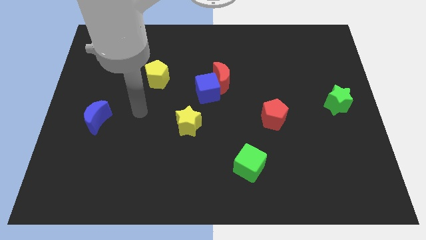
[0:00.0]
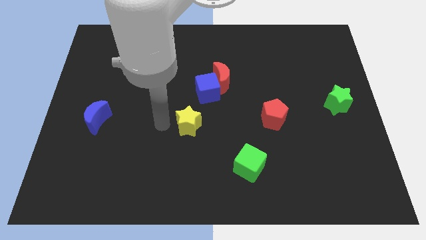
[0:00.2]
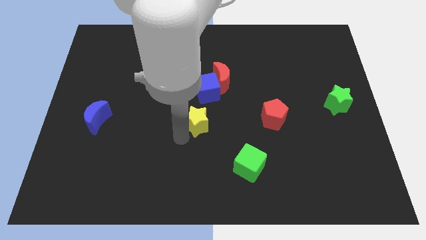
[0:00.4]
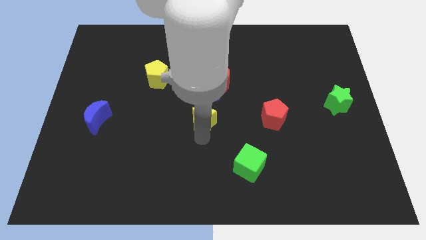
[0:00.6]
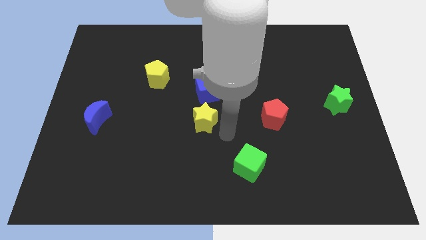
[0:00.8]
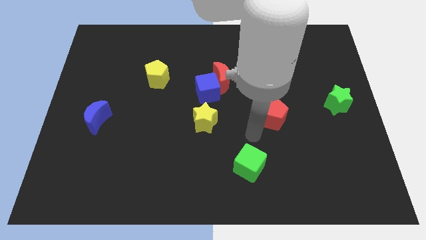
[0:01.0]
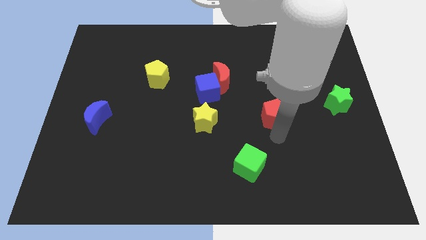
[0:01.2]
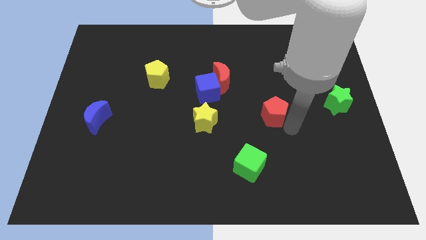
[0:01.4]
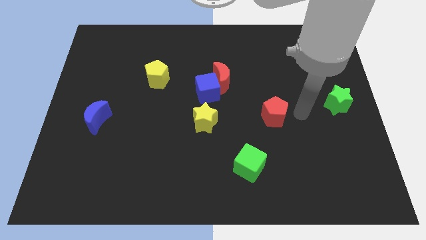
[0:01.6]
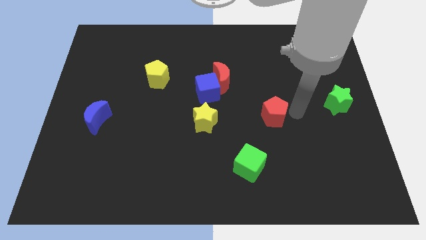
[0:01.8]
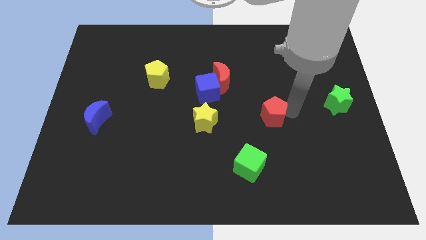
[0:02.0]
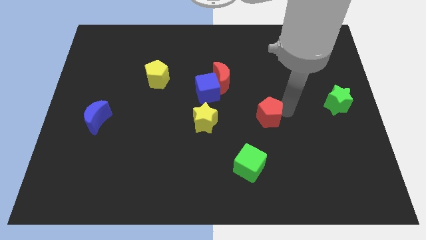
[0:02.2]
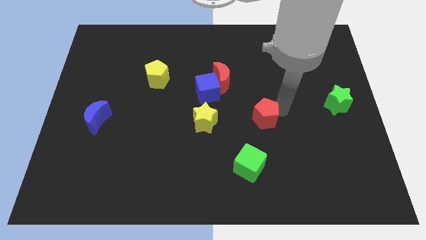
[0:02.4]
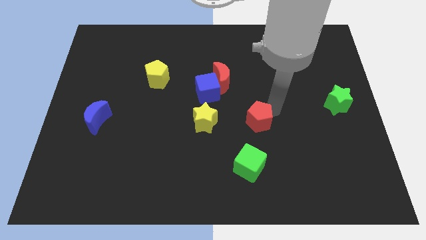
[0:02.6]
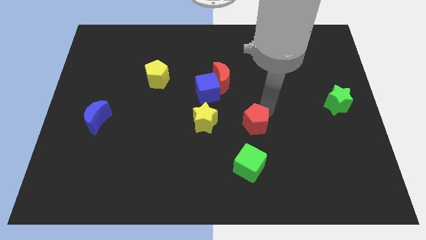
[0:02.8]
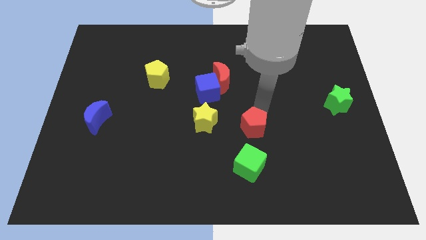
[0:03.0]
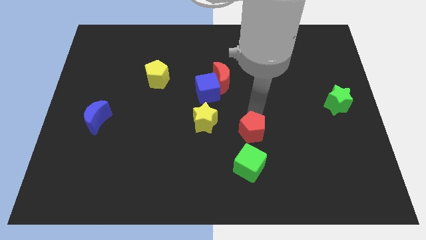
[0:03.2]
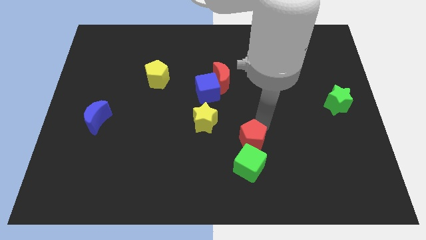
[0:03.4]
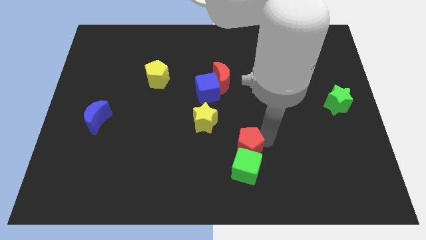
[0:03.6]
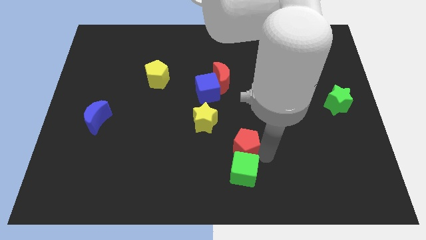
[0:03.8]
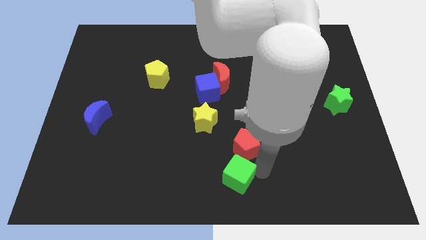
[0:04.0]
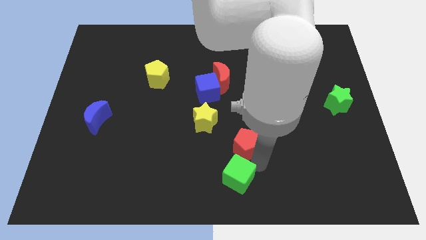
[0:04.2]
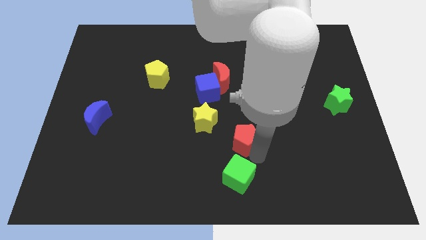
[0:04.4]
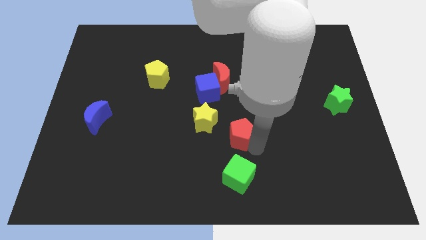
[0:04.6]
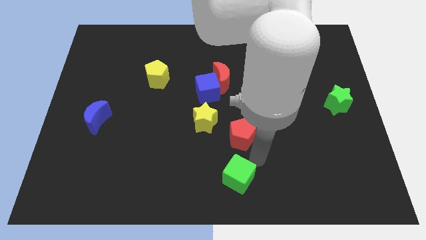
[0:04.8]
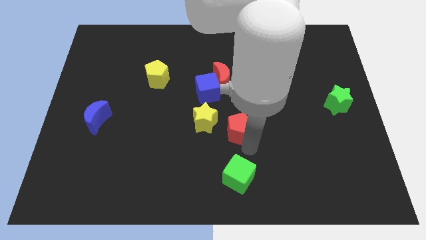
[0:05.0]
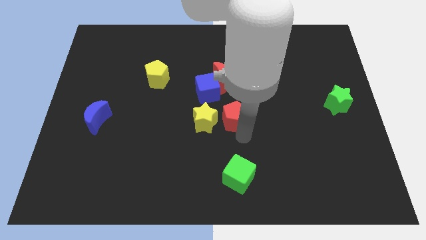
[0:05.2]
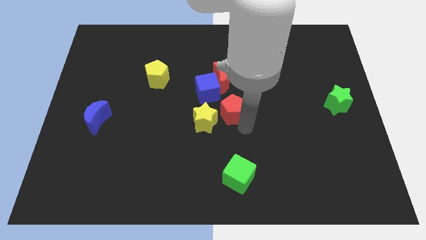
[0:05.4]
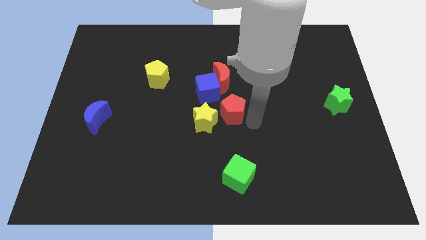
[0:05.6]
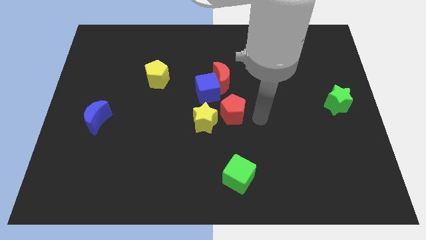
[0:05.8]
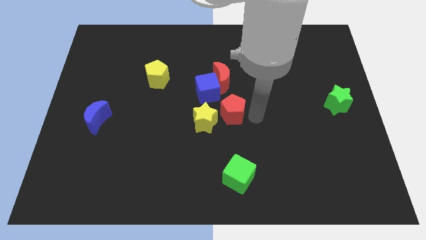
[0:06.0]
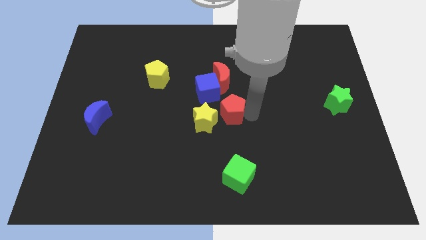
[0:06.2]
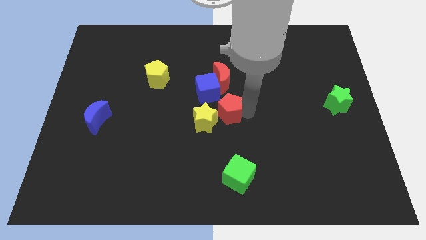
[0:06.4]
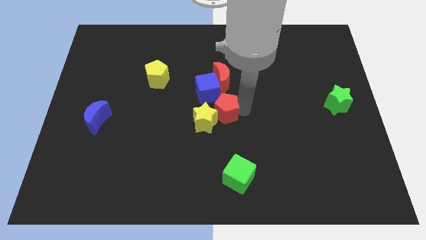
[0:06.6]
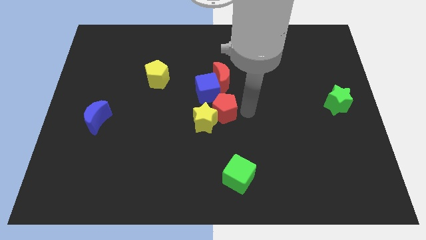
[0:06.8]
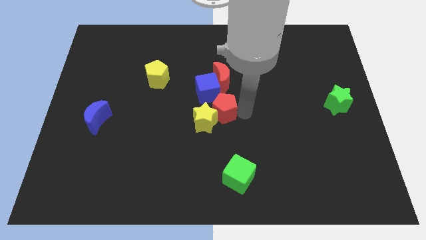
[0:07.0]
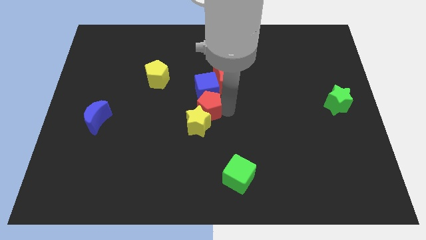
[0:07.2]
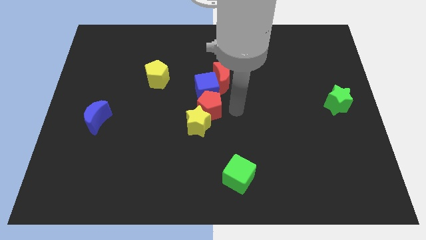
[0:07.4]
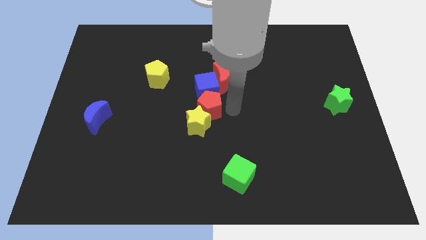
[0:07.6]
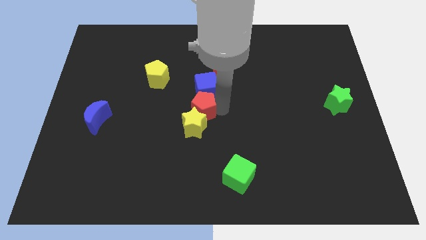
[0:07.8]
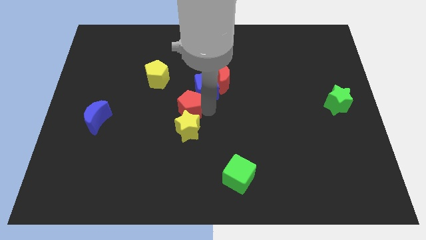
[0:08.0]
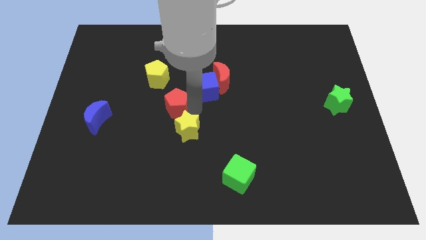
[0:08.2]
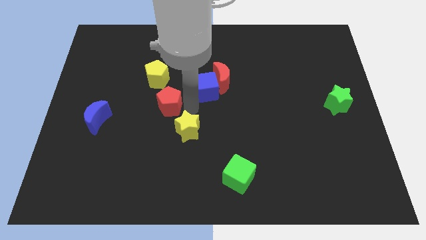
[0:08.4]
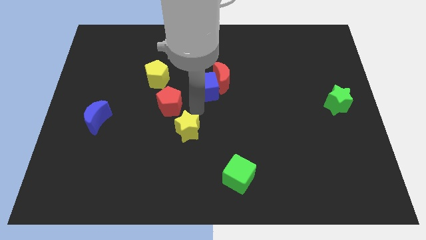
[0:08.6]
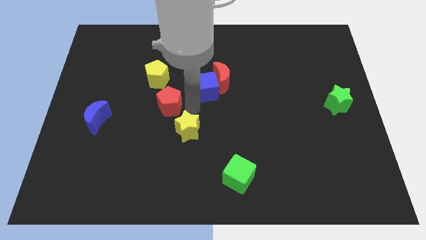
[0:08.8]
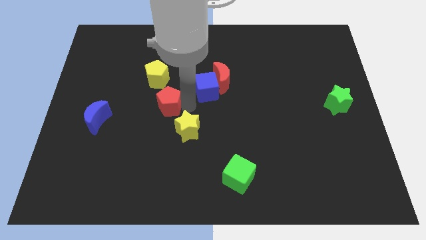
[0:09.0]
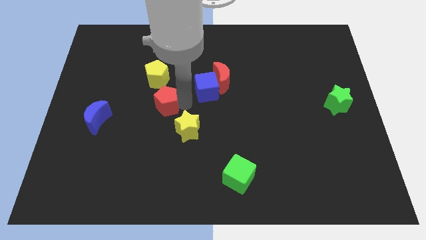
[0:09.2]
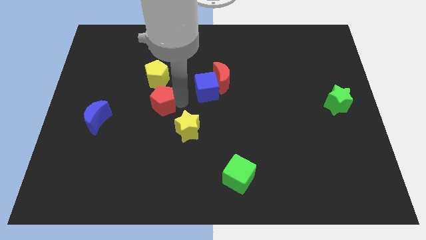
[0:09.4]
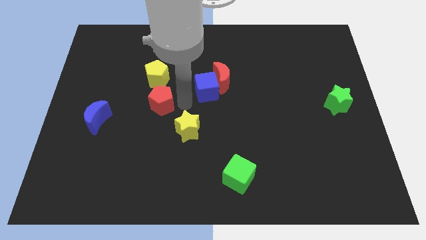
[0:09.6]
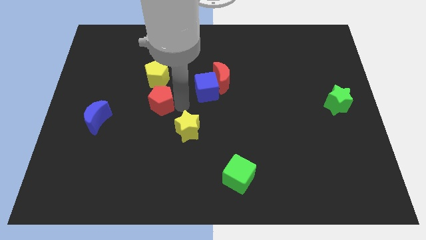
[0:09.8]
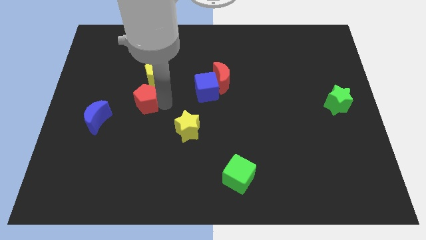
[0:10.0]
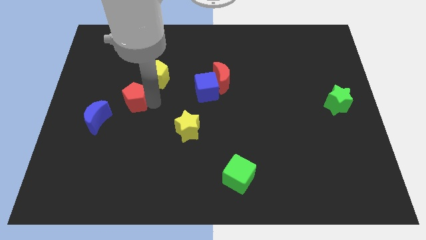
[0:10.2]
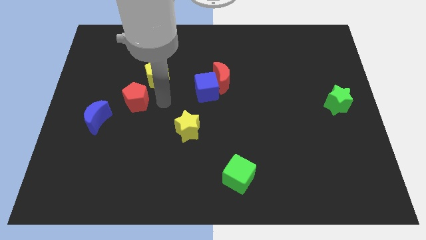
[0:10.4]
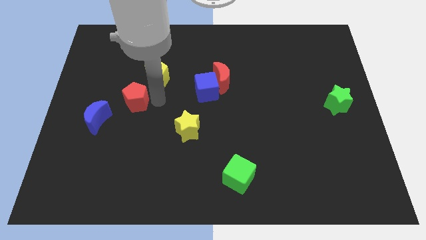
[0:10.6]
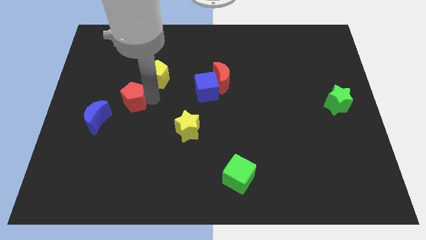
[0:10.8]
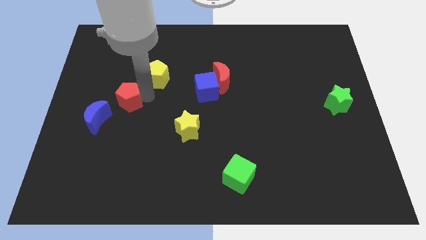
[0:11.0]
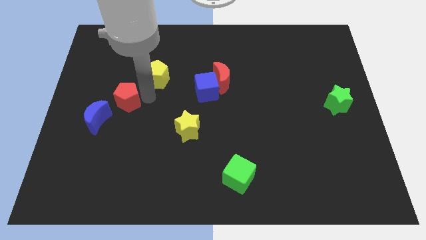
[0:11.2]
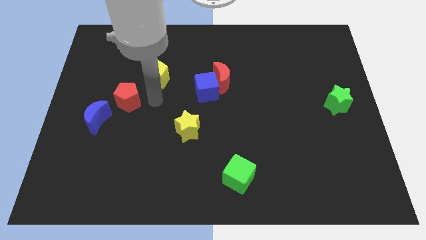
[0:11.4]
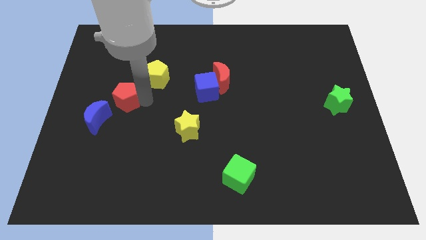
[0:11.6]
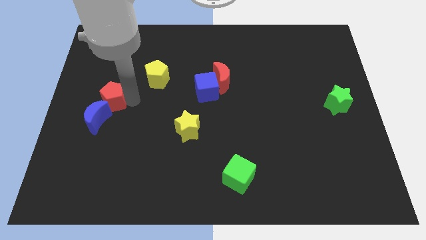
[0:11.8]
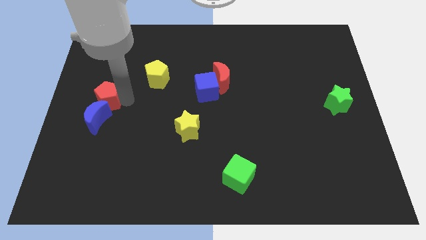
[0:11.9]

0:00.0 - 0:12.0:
move the red pentagon to the left side

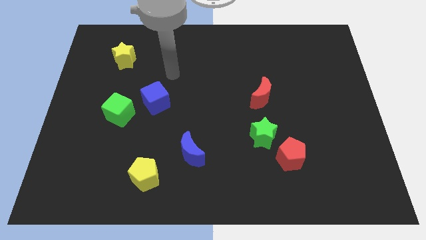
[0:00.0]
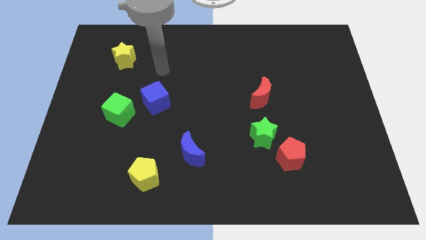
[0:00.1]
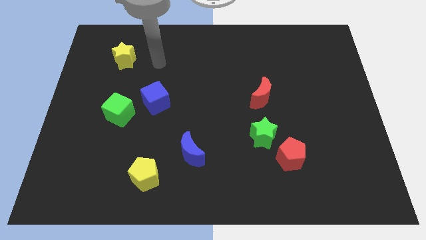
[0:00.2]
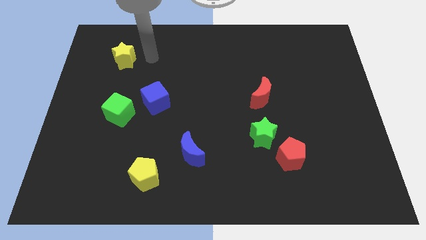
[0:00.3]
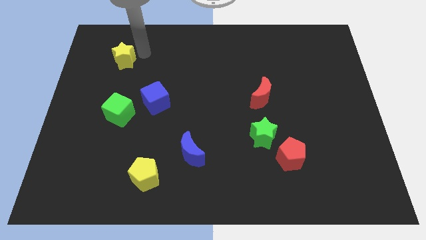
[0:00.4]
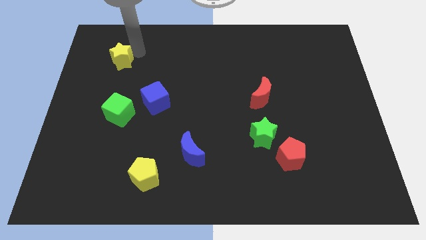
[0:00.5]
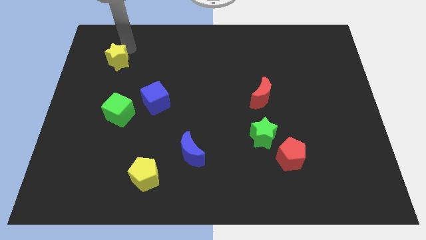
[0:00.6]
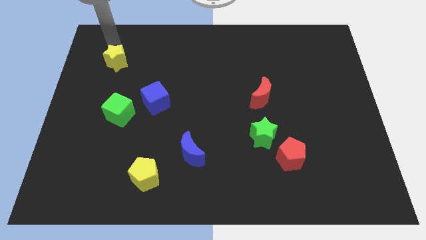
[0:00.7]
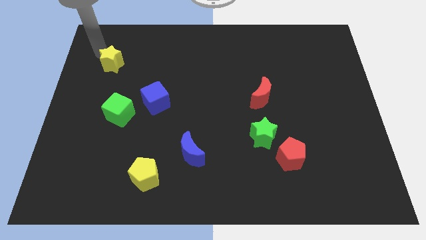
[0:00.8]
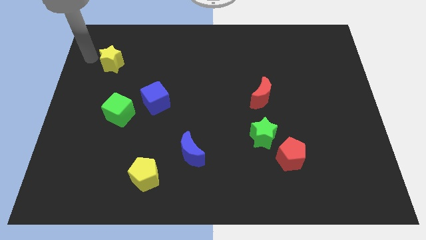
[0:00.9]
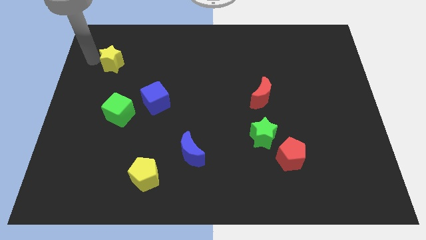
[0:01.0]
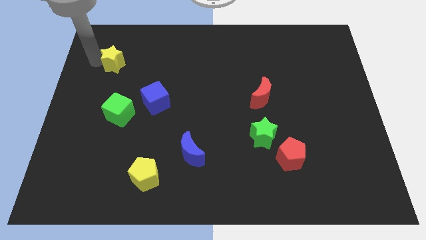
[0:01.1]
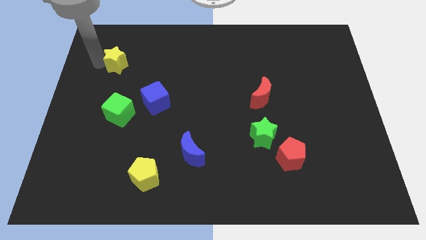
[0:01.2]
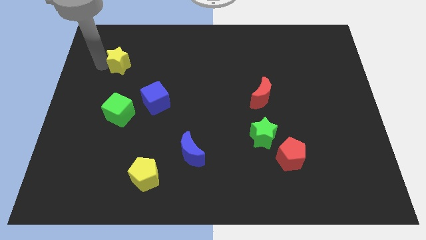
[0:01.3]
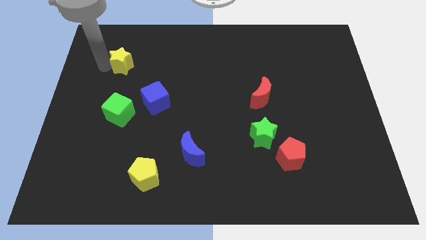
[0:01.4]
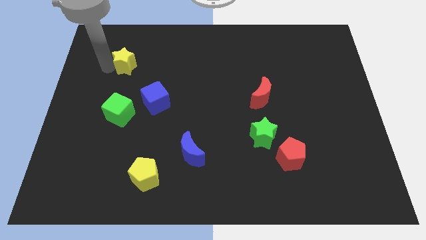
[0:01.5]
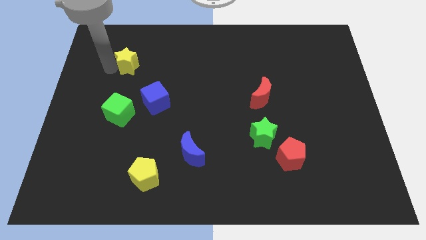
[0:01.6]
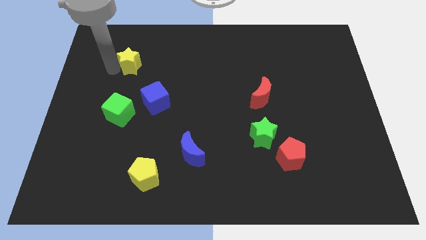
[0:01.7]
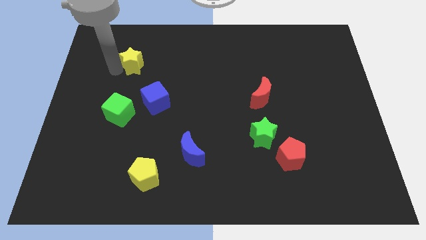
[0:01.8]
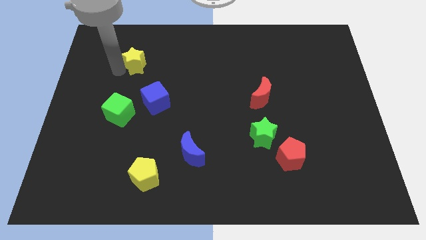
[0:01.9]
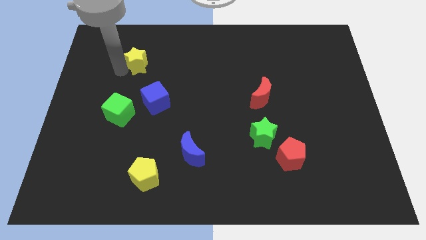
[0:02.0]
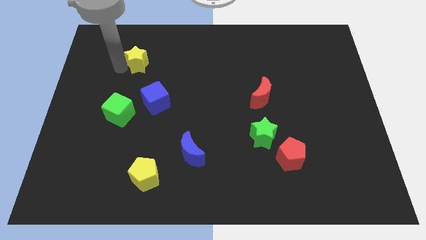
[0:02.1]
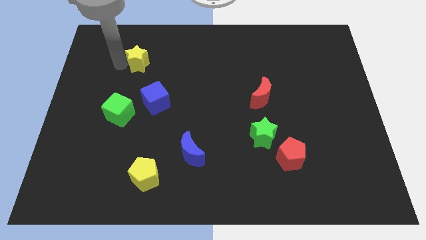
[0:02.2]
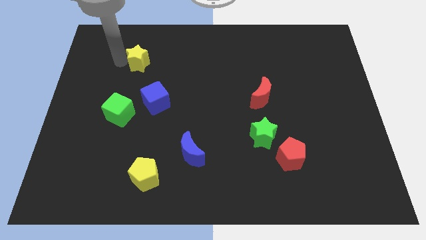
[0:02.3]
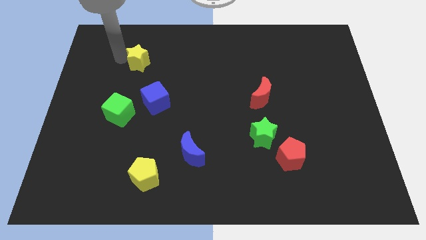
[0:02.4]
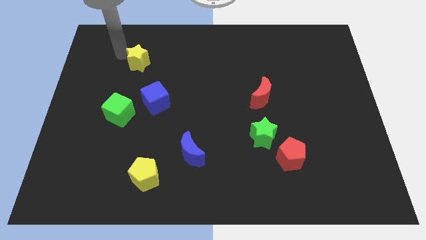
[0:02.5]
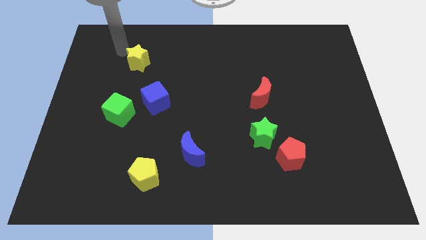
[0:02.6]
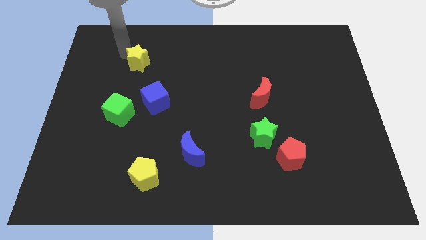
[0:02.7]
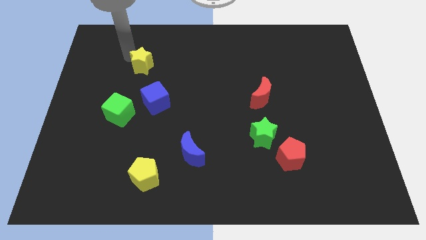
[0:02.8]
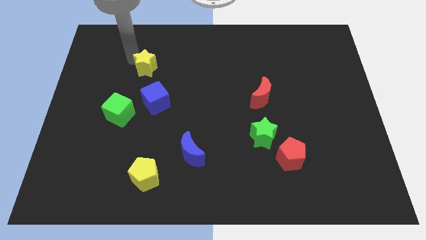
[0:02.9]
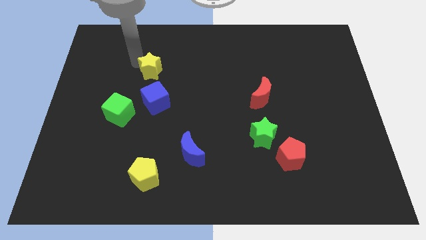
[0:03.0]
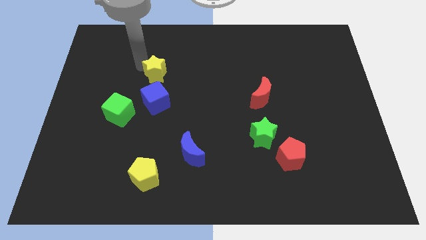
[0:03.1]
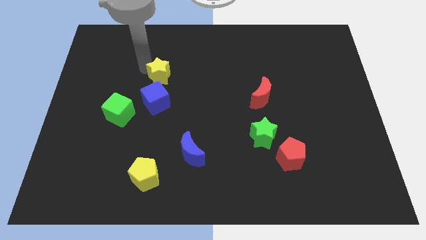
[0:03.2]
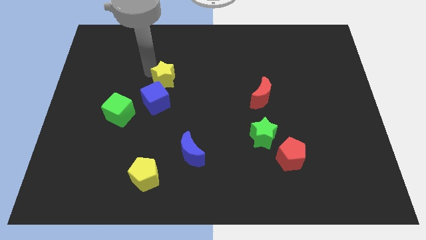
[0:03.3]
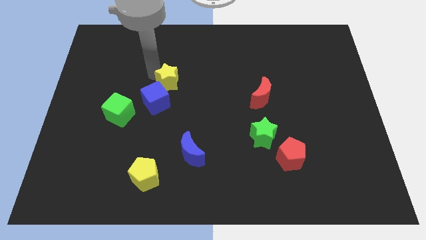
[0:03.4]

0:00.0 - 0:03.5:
move the yellow star to the center
